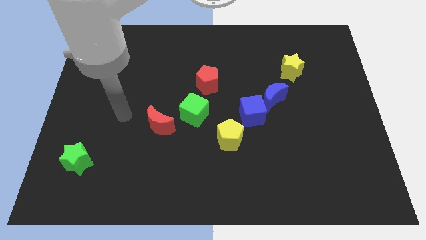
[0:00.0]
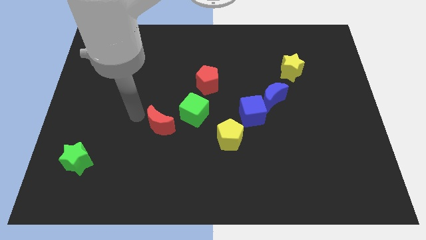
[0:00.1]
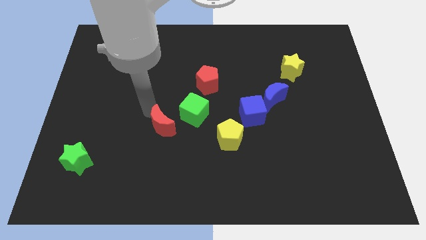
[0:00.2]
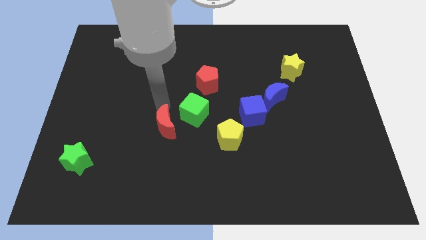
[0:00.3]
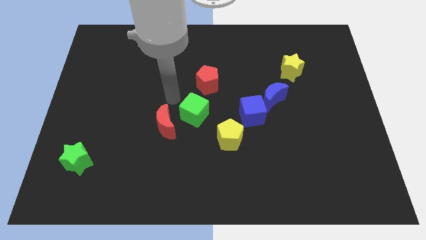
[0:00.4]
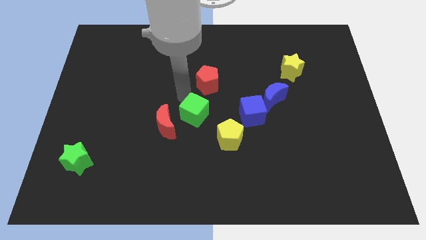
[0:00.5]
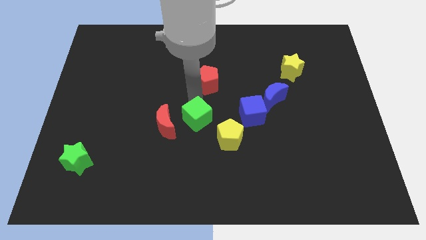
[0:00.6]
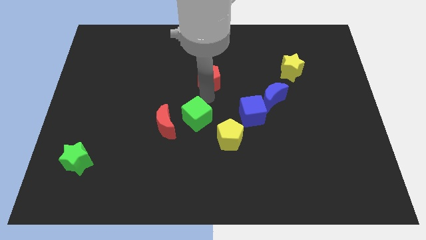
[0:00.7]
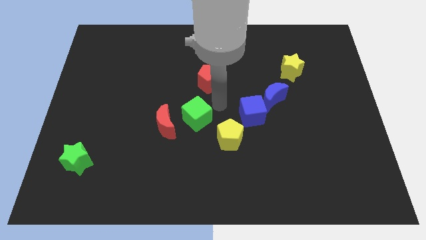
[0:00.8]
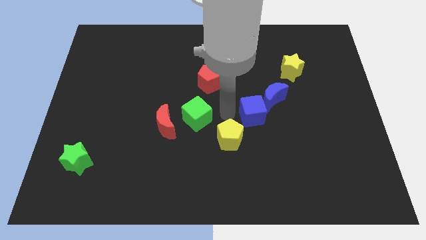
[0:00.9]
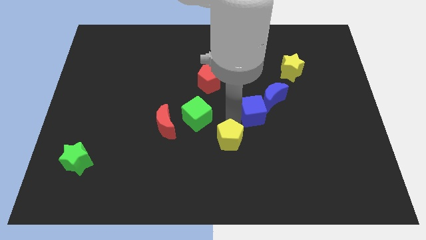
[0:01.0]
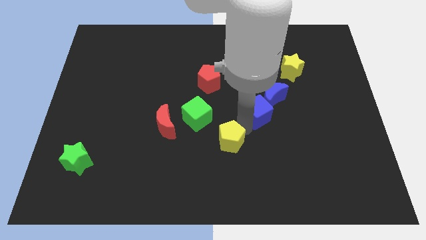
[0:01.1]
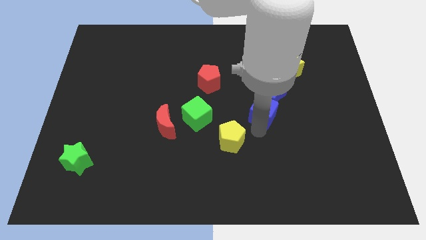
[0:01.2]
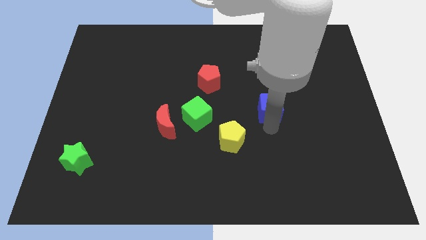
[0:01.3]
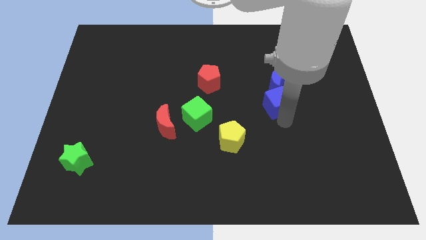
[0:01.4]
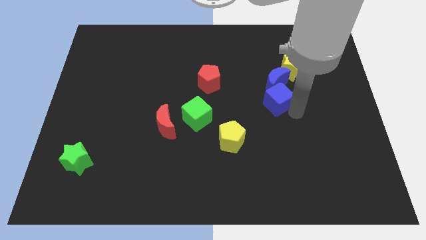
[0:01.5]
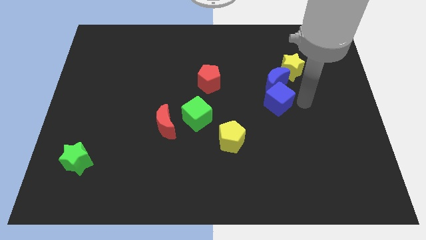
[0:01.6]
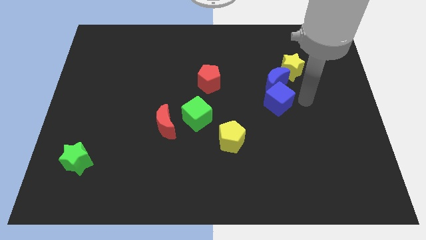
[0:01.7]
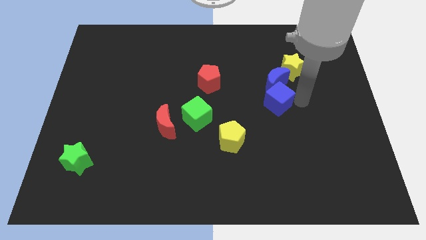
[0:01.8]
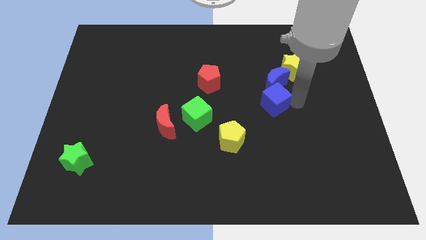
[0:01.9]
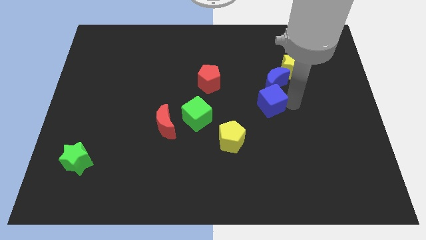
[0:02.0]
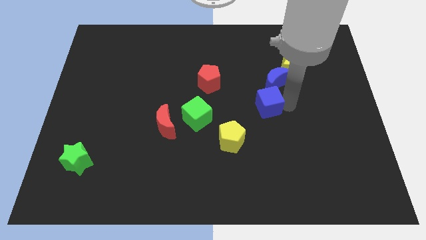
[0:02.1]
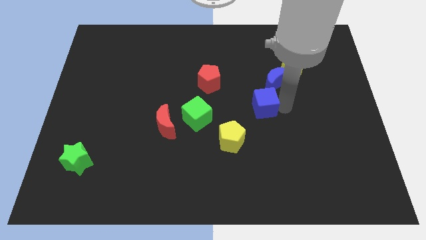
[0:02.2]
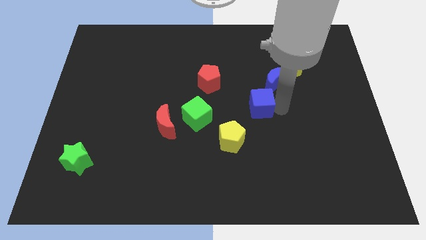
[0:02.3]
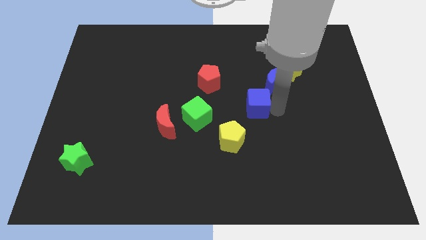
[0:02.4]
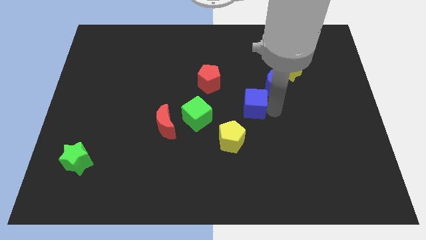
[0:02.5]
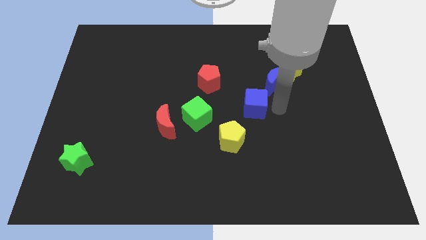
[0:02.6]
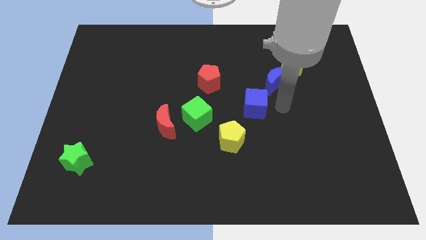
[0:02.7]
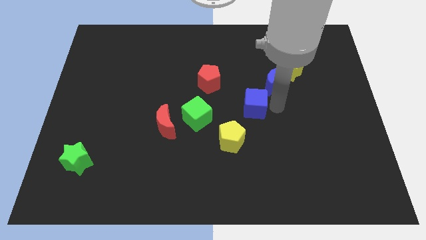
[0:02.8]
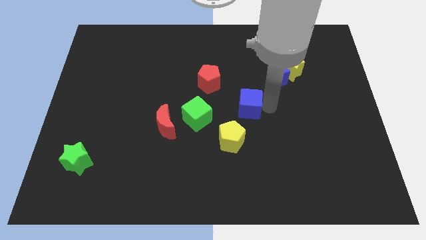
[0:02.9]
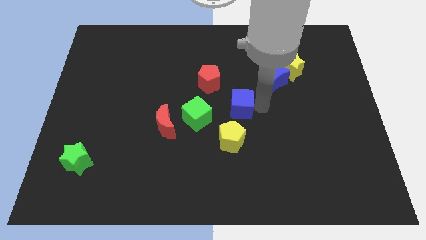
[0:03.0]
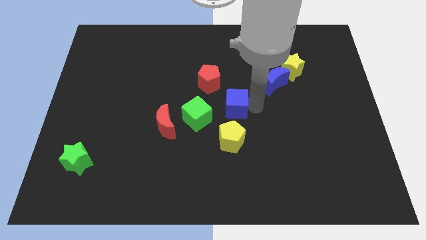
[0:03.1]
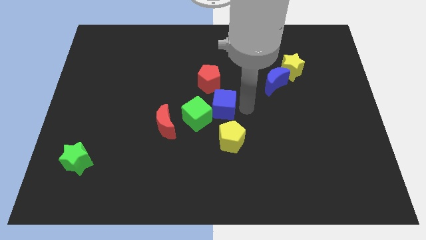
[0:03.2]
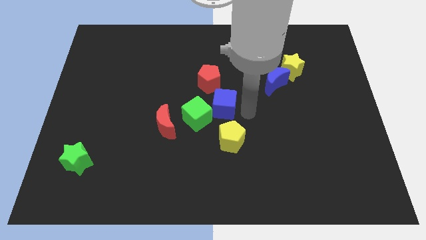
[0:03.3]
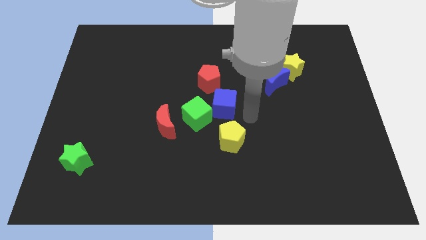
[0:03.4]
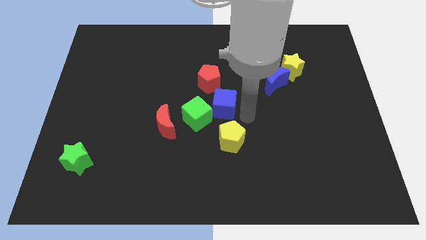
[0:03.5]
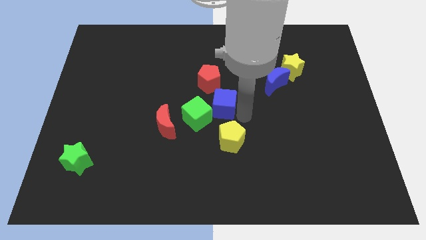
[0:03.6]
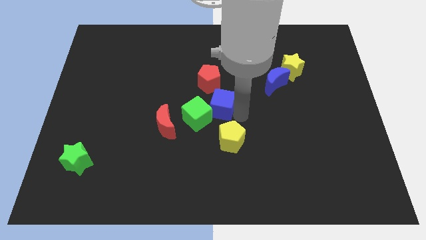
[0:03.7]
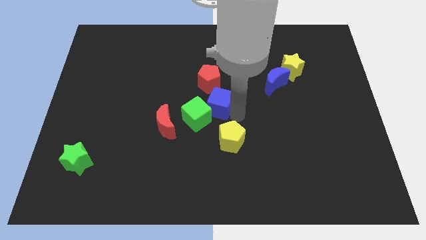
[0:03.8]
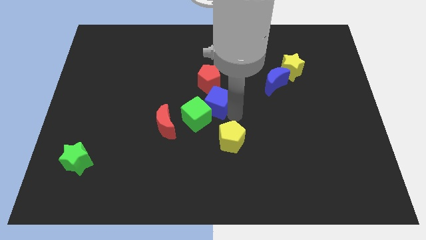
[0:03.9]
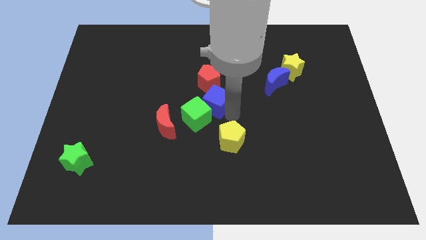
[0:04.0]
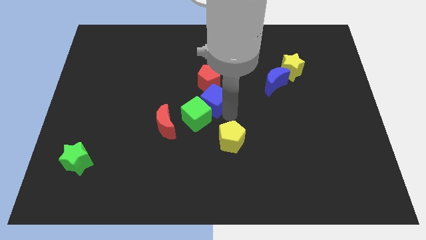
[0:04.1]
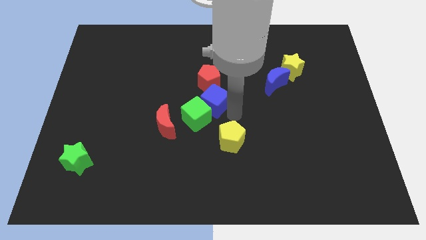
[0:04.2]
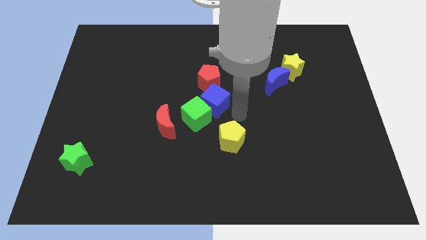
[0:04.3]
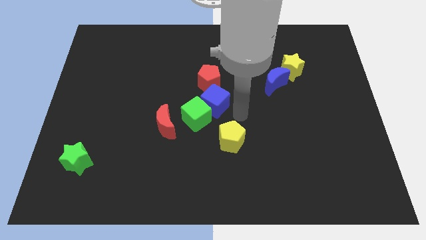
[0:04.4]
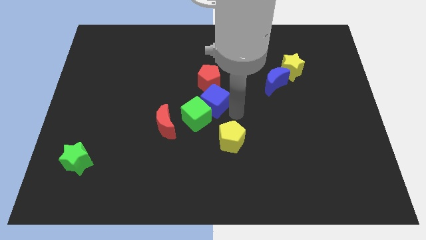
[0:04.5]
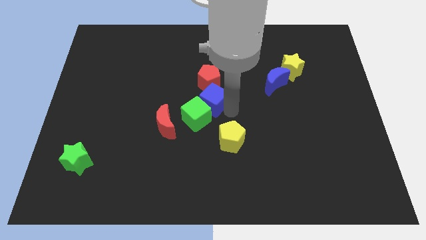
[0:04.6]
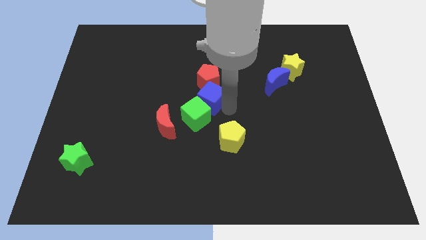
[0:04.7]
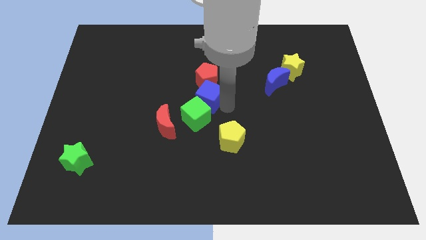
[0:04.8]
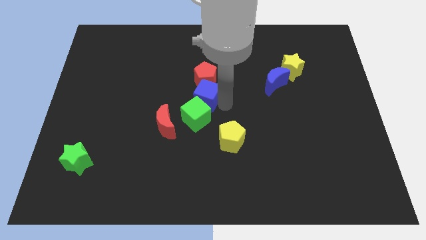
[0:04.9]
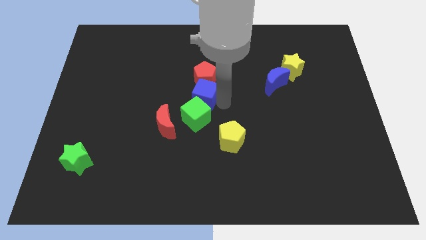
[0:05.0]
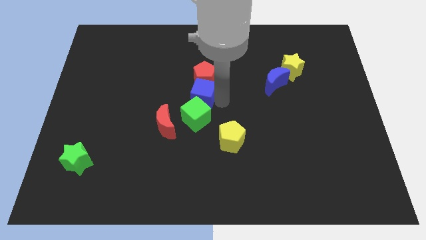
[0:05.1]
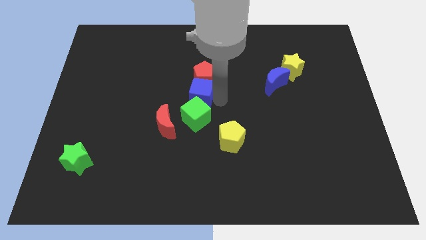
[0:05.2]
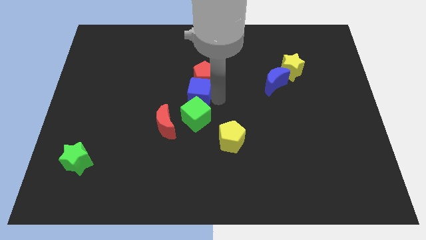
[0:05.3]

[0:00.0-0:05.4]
slide the blue cube to the top left side of the green cube

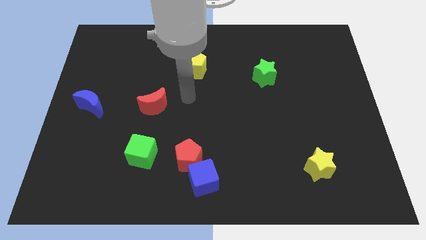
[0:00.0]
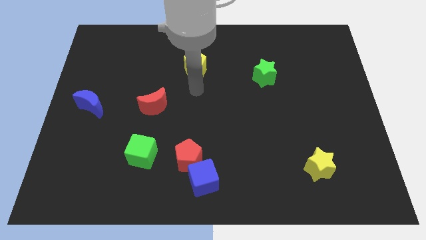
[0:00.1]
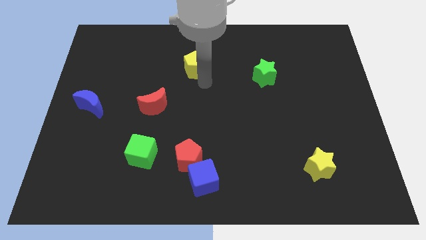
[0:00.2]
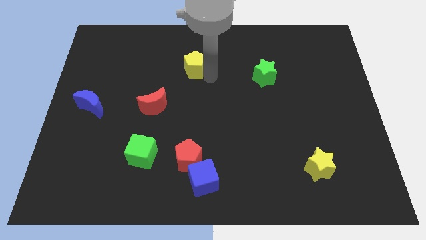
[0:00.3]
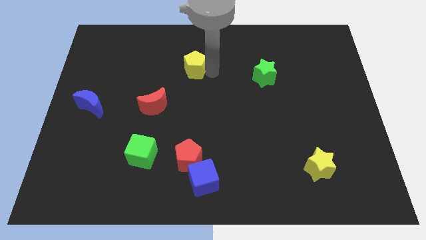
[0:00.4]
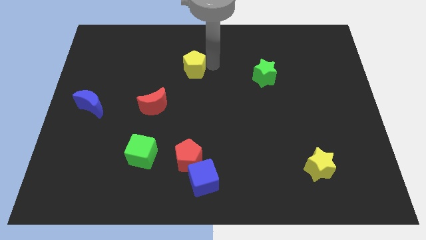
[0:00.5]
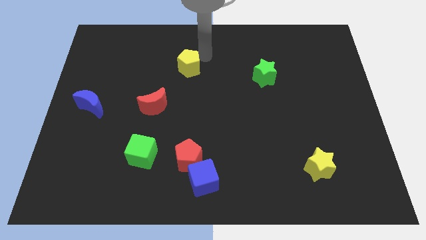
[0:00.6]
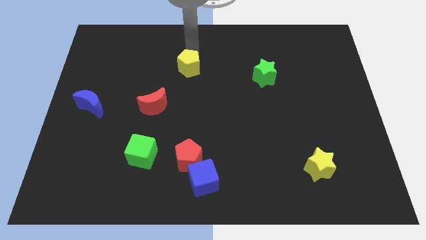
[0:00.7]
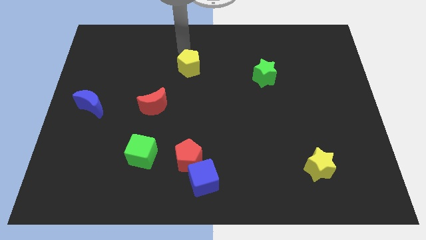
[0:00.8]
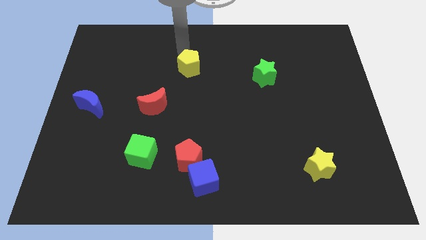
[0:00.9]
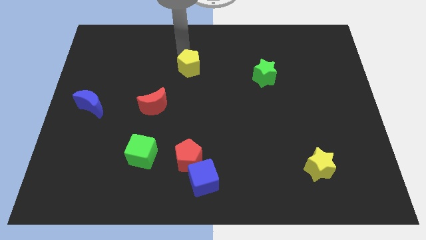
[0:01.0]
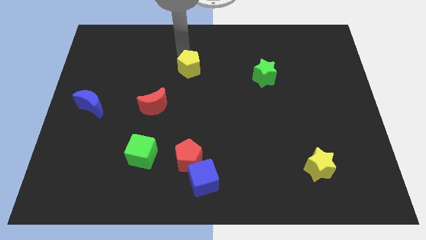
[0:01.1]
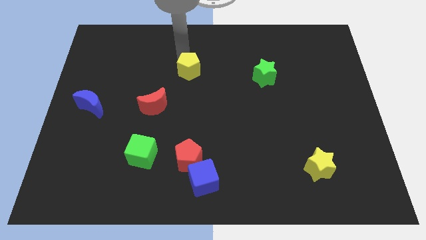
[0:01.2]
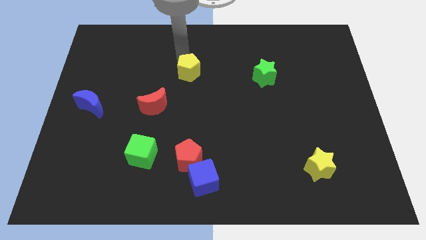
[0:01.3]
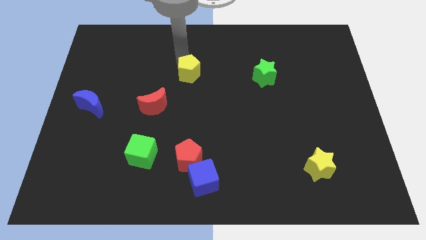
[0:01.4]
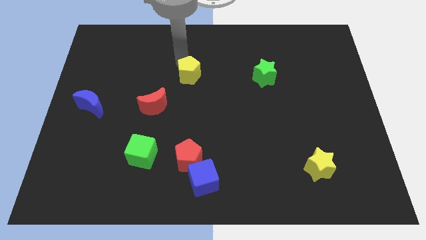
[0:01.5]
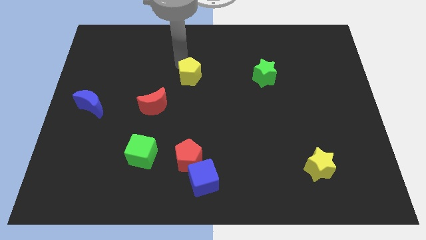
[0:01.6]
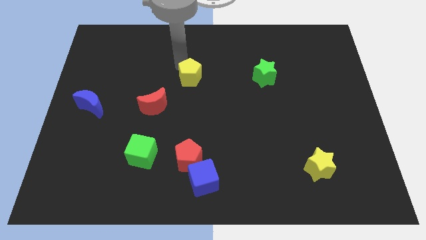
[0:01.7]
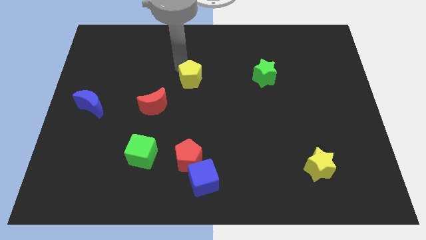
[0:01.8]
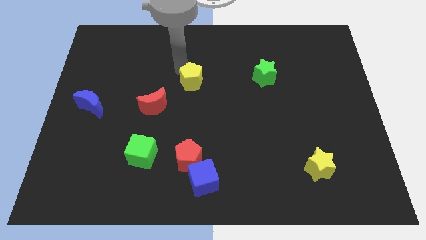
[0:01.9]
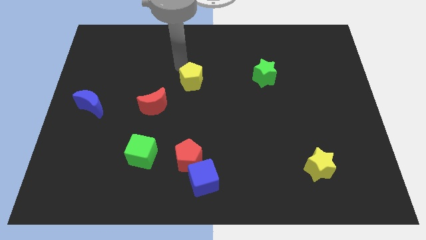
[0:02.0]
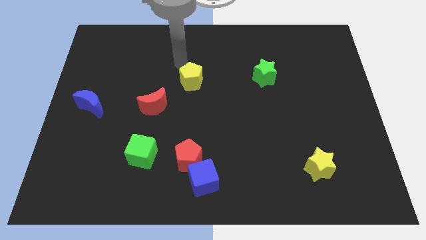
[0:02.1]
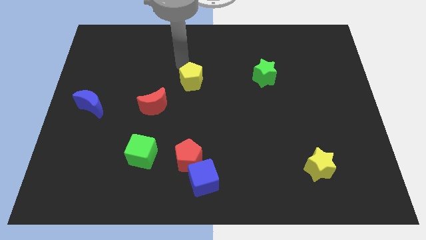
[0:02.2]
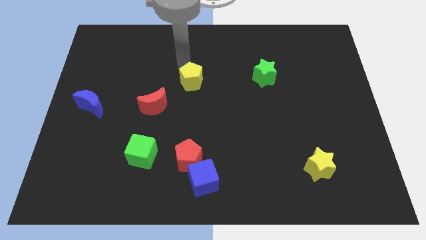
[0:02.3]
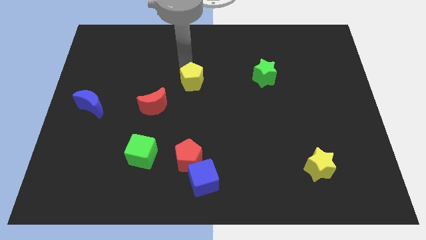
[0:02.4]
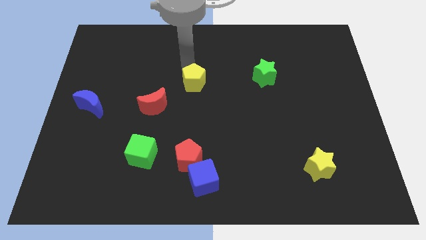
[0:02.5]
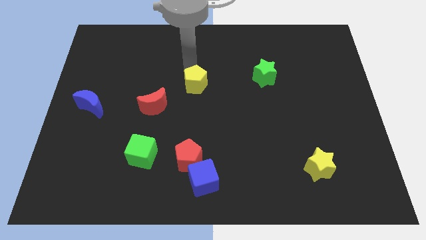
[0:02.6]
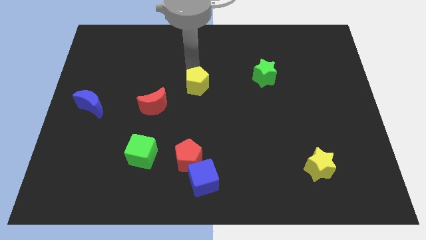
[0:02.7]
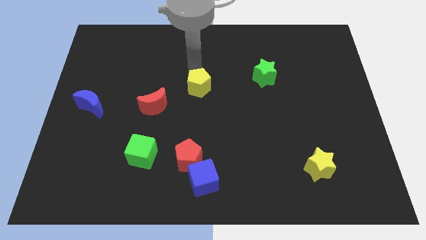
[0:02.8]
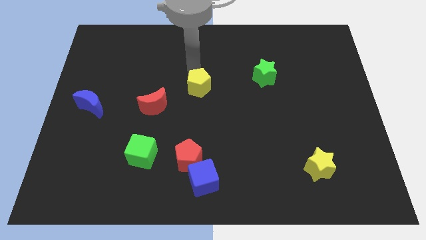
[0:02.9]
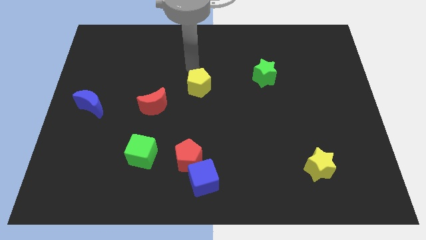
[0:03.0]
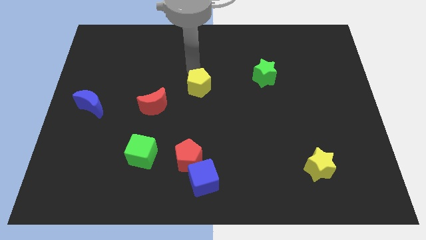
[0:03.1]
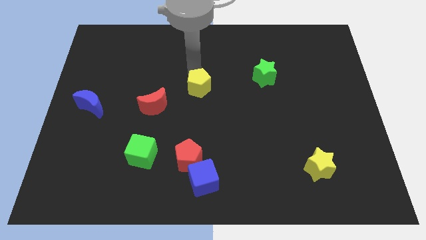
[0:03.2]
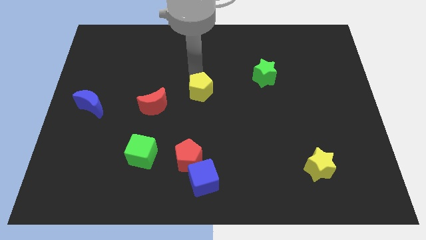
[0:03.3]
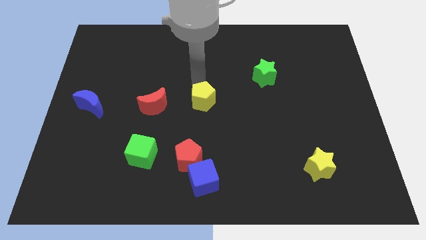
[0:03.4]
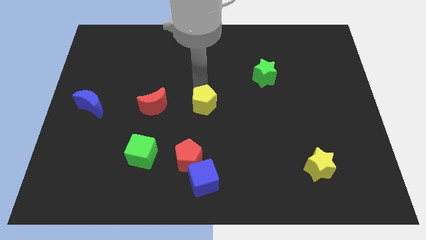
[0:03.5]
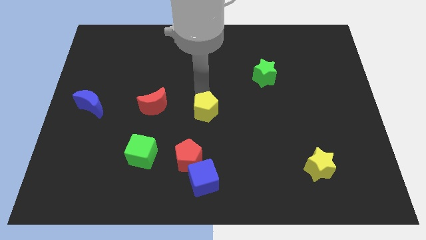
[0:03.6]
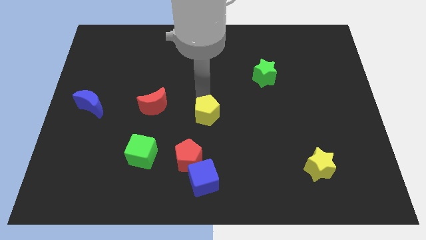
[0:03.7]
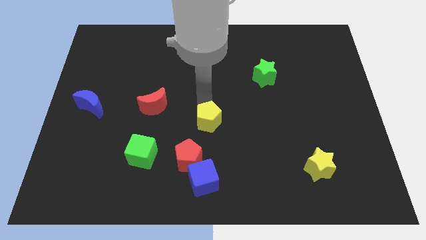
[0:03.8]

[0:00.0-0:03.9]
move the yellow pentagon to the top right side of the red pentagon
